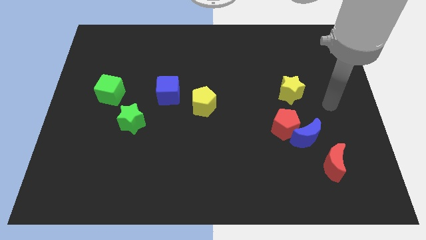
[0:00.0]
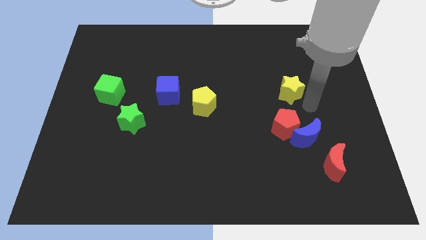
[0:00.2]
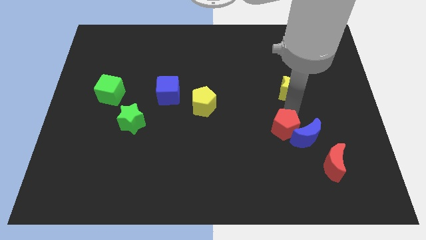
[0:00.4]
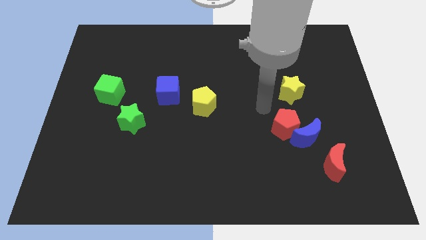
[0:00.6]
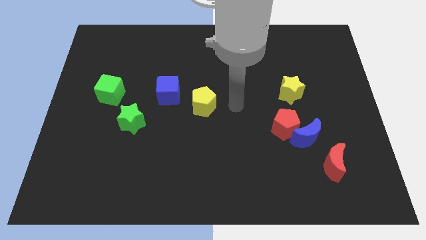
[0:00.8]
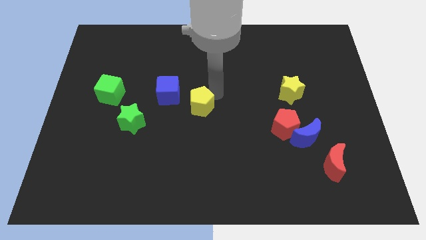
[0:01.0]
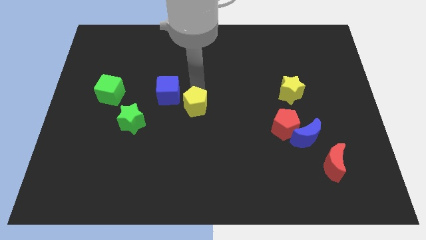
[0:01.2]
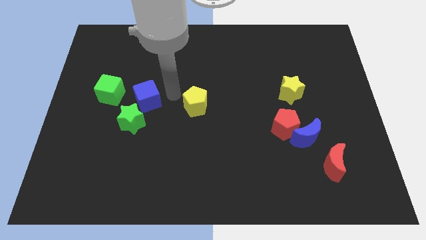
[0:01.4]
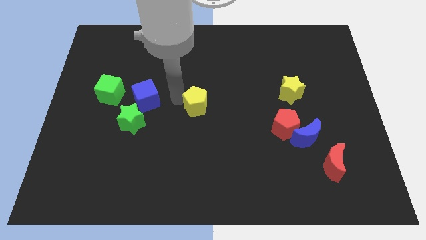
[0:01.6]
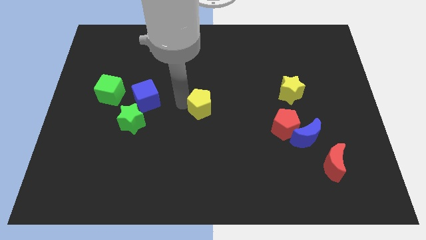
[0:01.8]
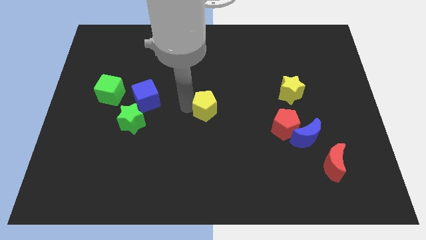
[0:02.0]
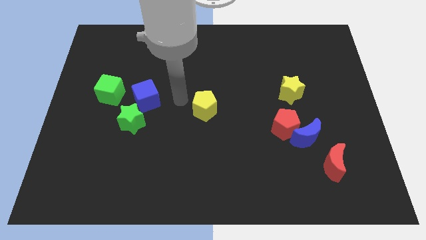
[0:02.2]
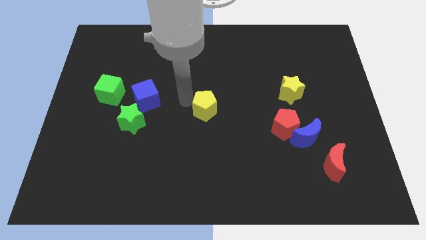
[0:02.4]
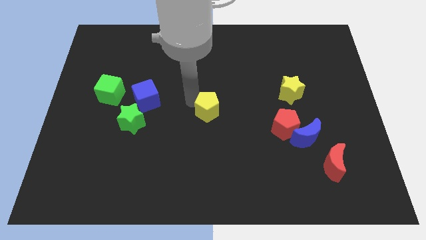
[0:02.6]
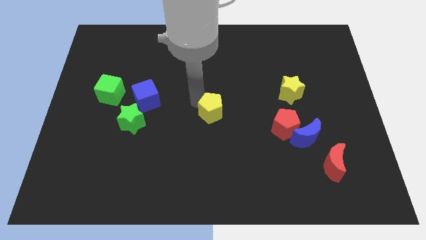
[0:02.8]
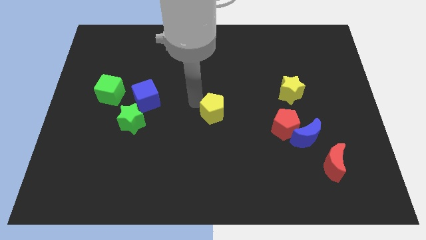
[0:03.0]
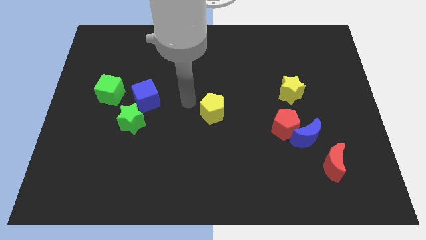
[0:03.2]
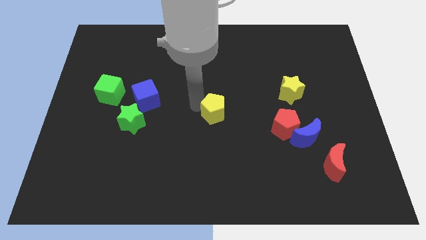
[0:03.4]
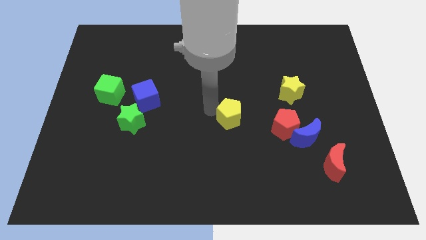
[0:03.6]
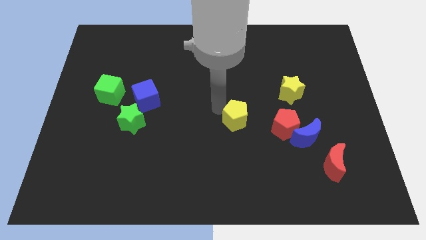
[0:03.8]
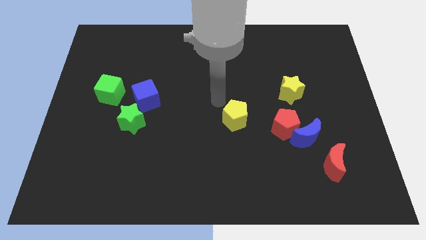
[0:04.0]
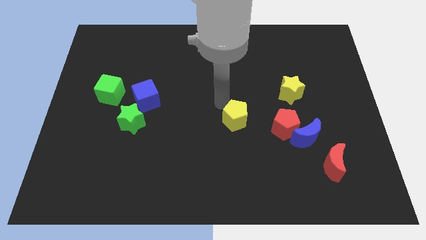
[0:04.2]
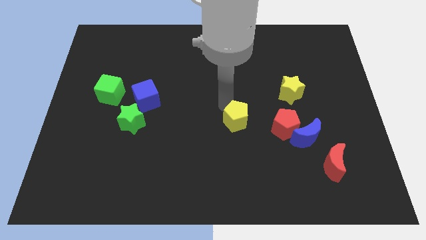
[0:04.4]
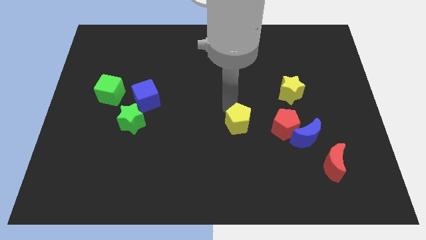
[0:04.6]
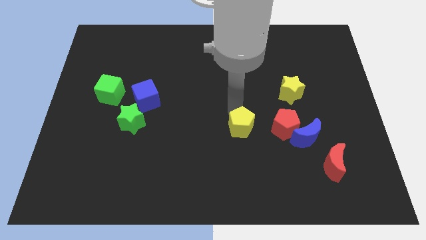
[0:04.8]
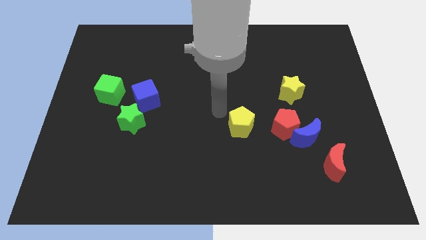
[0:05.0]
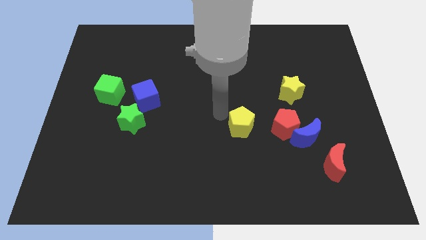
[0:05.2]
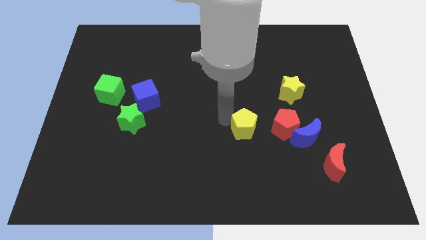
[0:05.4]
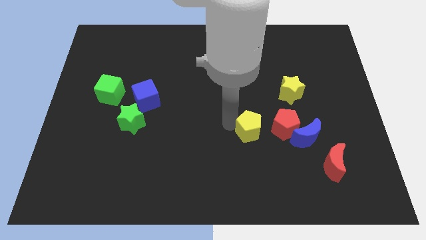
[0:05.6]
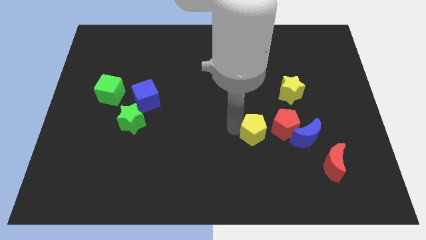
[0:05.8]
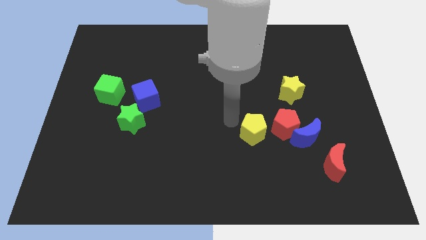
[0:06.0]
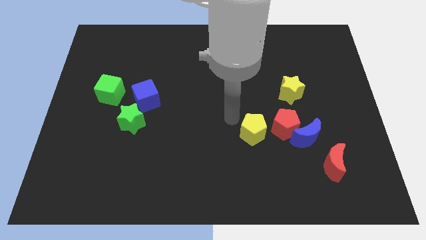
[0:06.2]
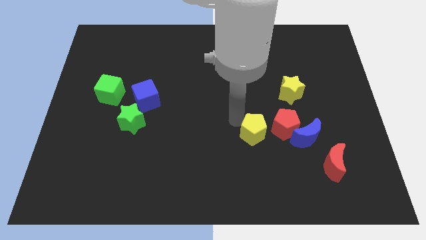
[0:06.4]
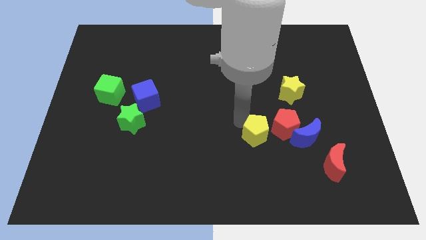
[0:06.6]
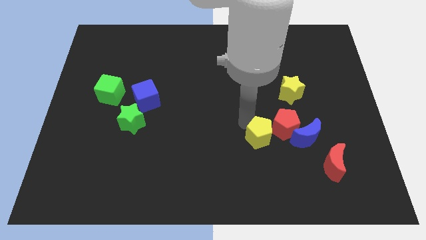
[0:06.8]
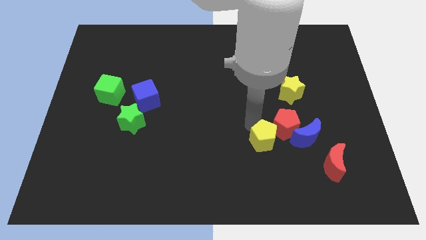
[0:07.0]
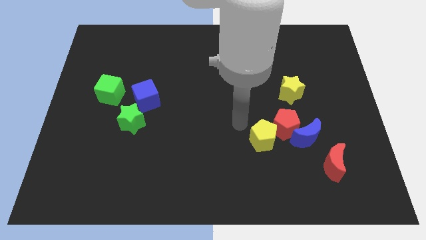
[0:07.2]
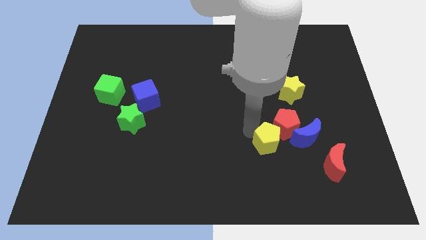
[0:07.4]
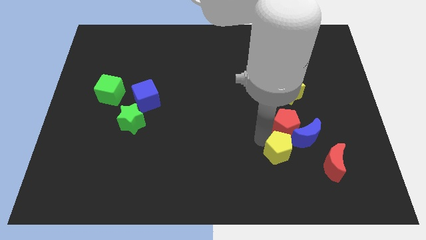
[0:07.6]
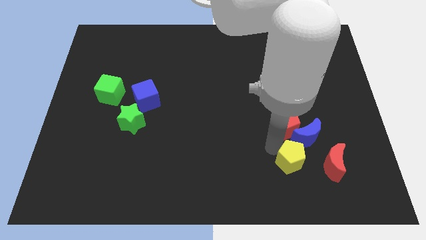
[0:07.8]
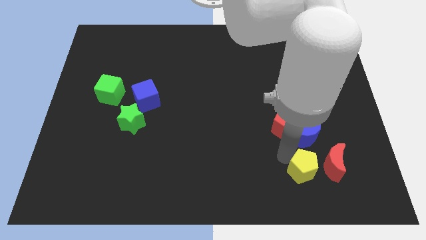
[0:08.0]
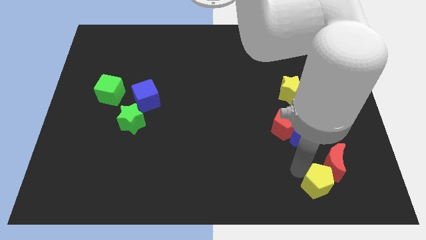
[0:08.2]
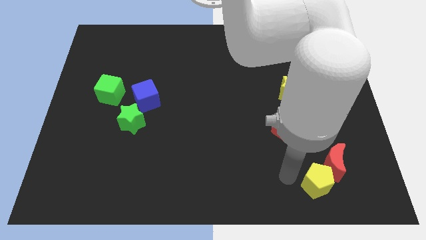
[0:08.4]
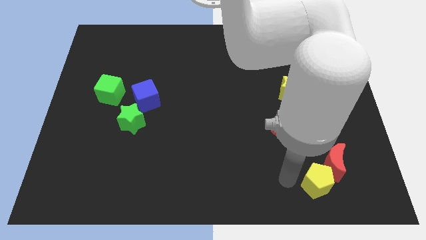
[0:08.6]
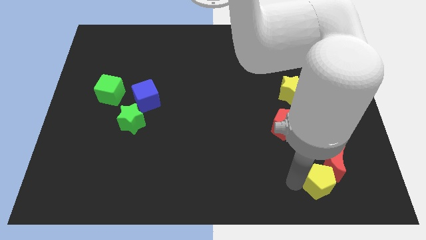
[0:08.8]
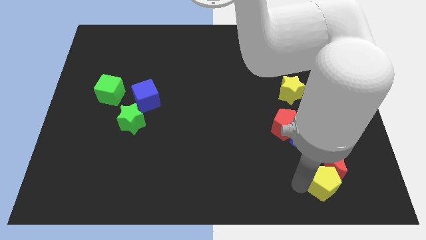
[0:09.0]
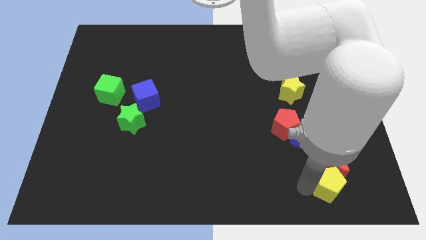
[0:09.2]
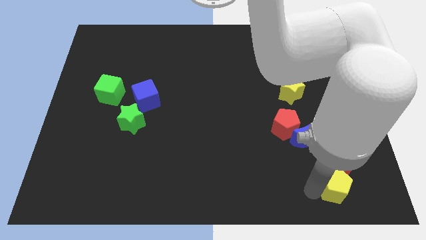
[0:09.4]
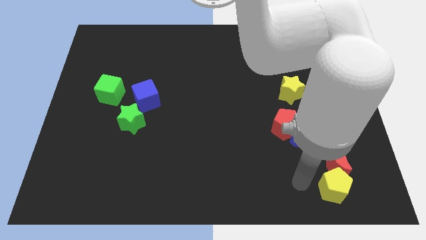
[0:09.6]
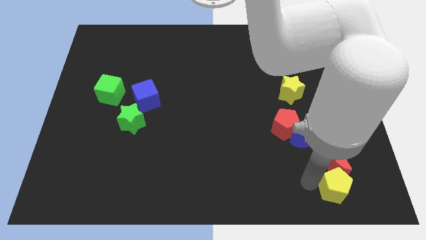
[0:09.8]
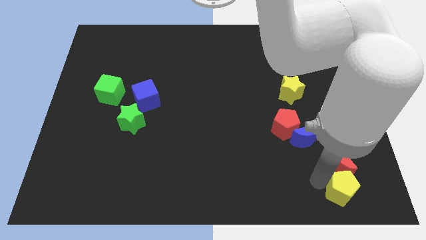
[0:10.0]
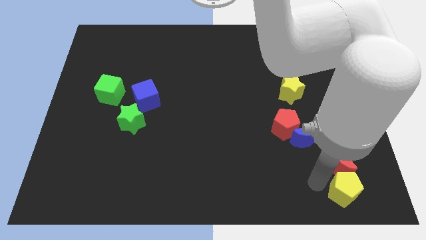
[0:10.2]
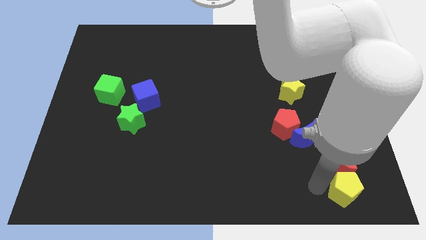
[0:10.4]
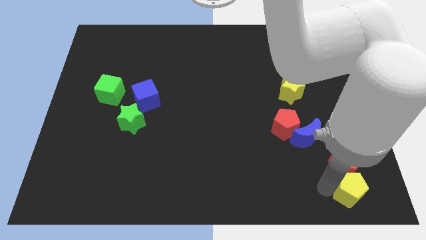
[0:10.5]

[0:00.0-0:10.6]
put the yellow pentagon to the bottom right

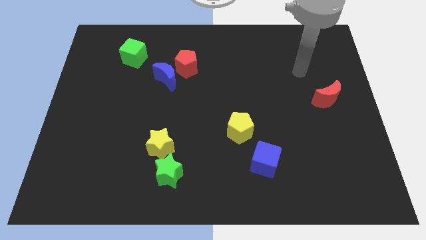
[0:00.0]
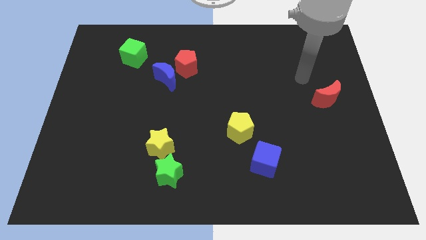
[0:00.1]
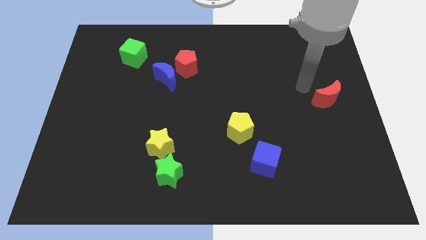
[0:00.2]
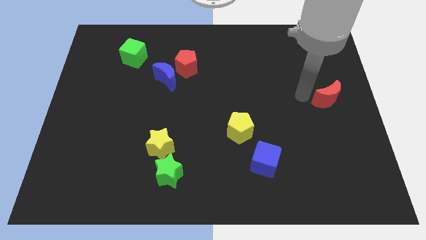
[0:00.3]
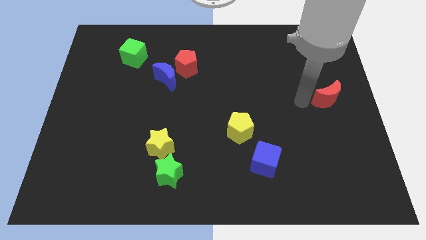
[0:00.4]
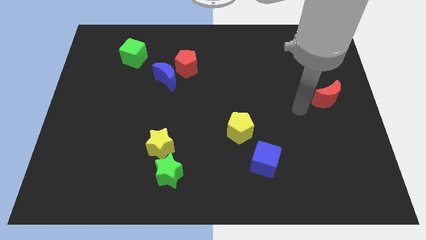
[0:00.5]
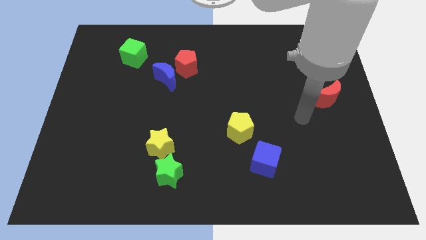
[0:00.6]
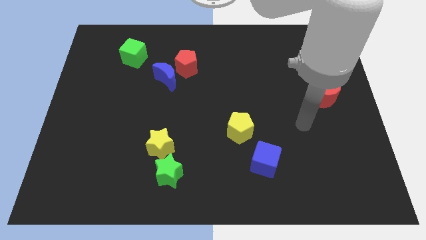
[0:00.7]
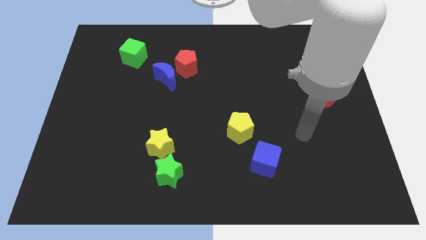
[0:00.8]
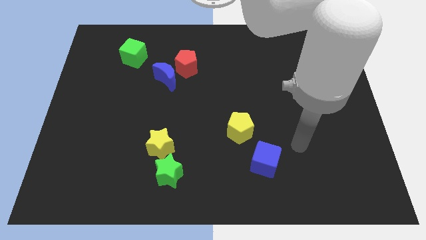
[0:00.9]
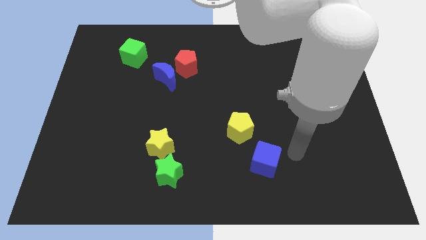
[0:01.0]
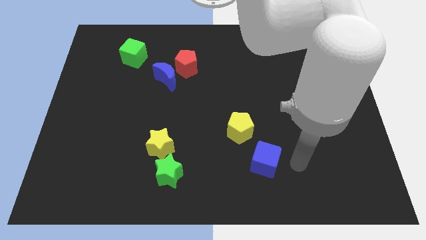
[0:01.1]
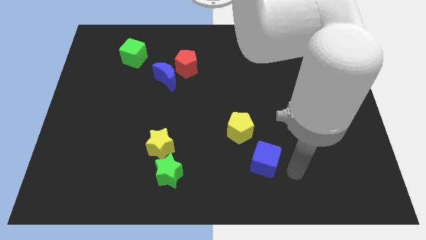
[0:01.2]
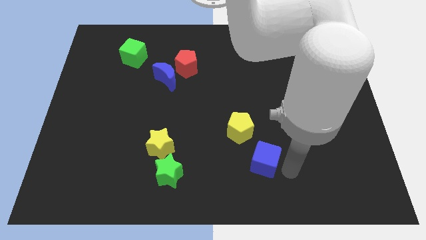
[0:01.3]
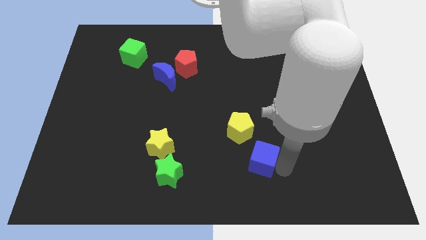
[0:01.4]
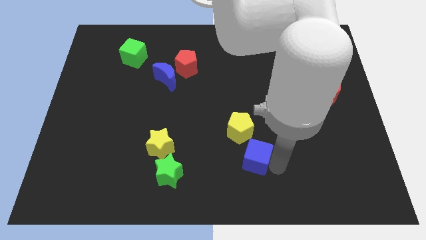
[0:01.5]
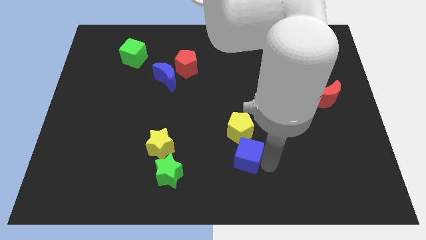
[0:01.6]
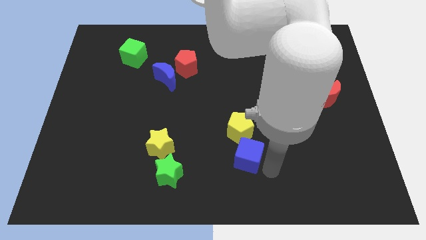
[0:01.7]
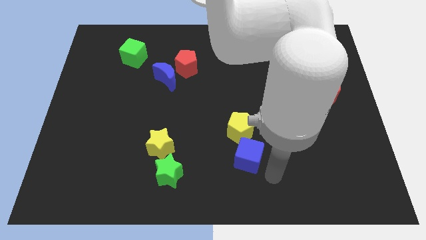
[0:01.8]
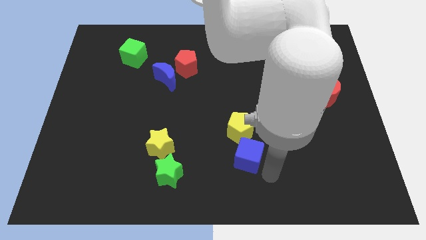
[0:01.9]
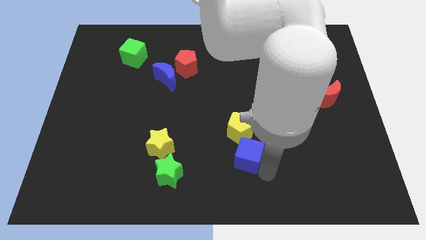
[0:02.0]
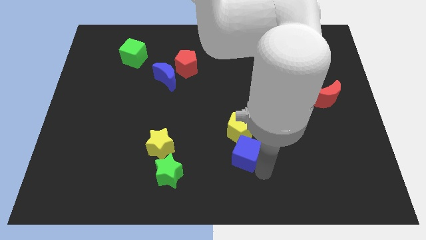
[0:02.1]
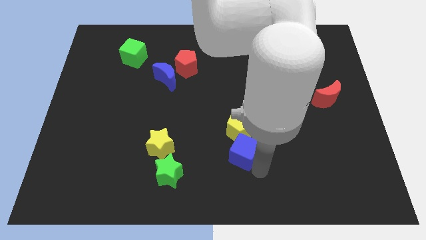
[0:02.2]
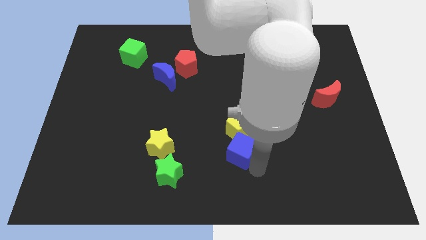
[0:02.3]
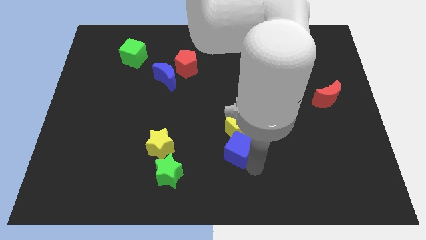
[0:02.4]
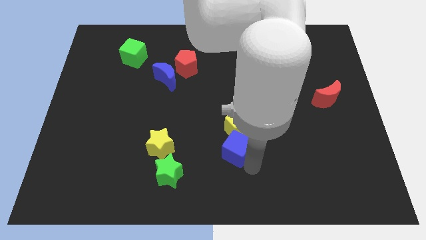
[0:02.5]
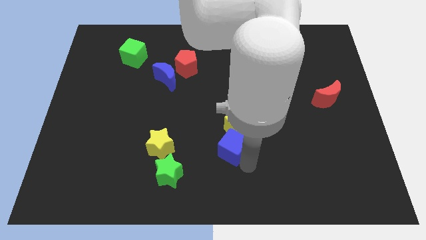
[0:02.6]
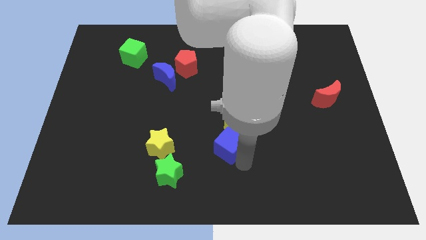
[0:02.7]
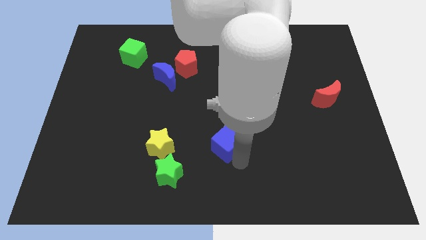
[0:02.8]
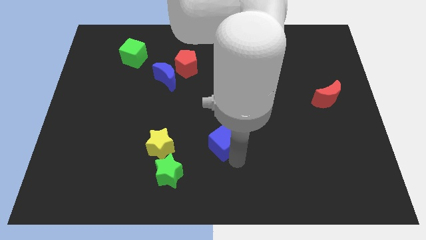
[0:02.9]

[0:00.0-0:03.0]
slide the blue cube to the middle
